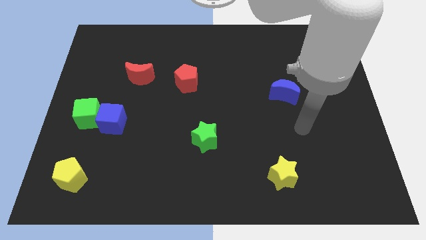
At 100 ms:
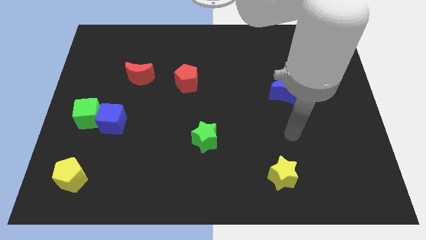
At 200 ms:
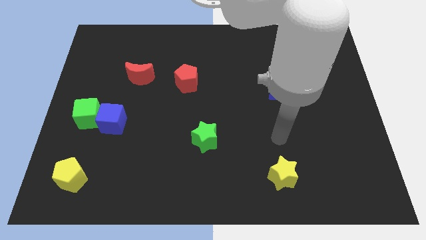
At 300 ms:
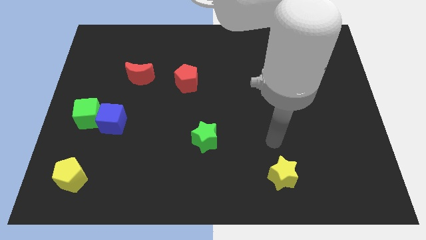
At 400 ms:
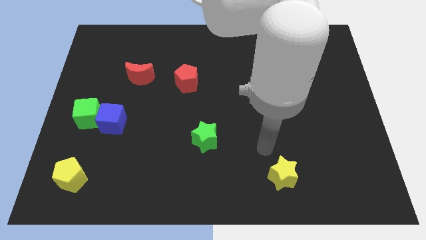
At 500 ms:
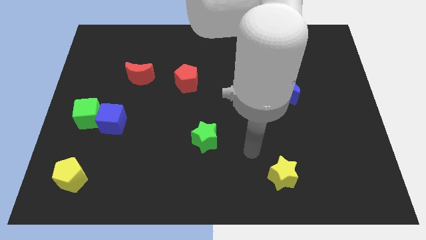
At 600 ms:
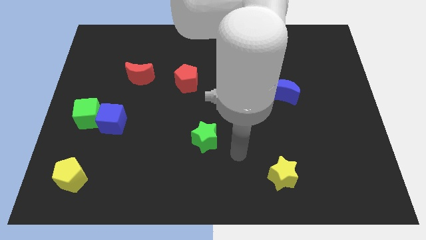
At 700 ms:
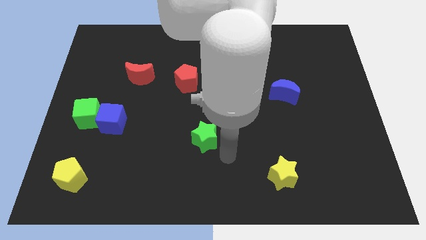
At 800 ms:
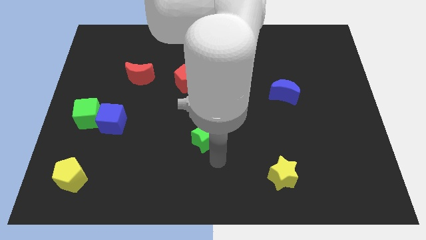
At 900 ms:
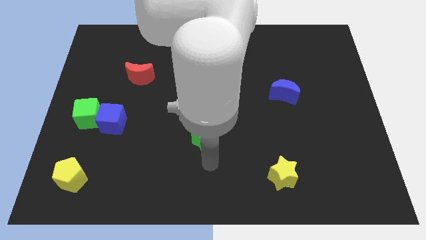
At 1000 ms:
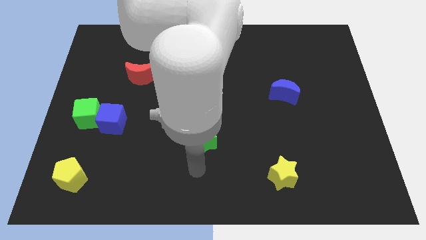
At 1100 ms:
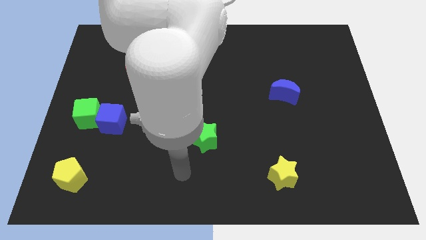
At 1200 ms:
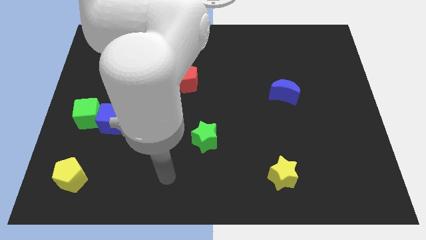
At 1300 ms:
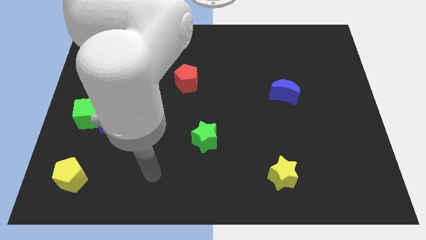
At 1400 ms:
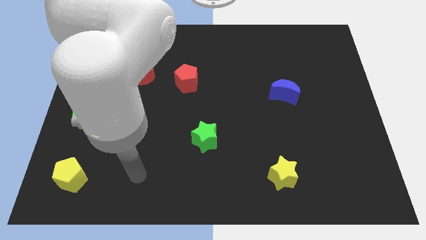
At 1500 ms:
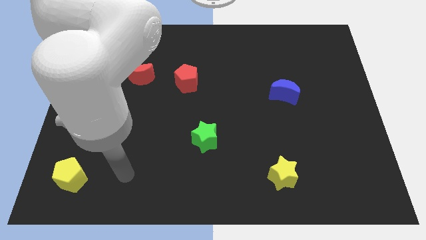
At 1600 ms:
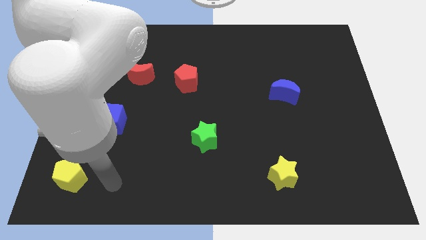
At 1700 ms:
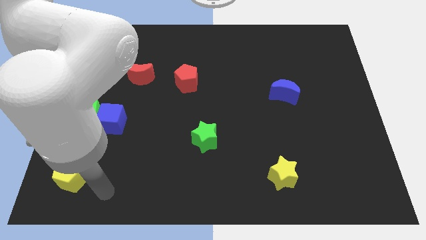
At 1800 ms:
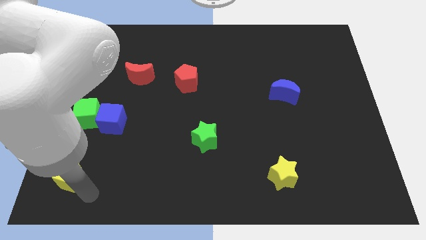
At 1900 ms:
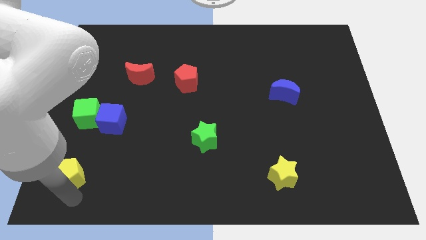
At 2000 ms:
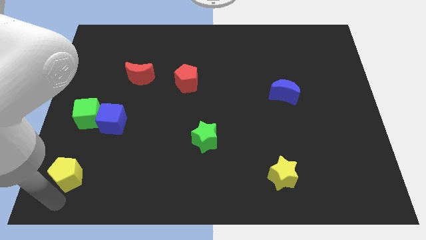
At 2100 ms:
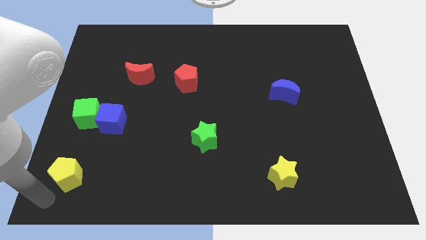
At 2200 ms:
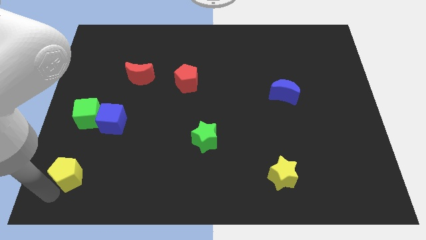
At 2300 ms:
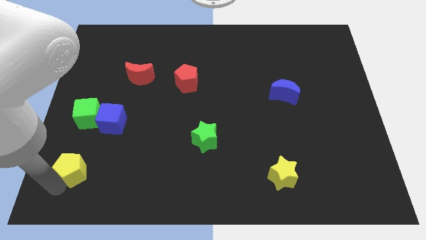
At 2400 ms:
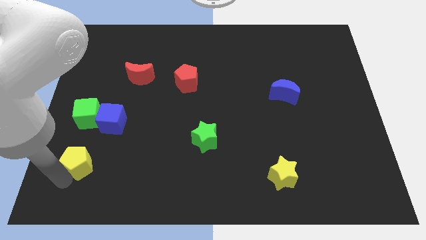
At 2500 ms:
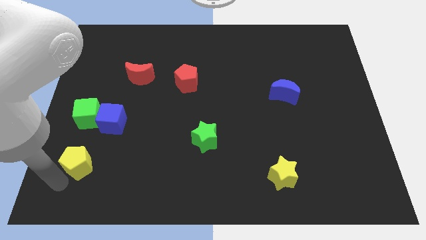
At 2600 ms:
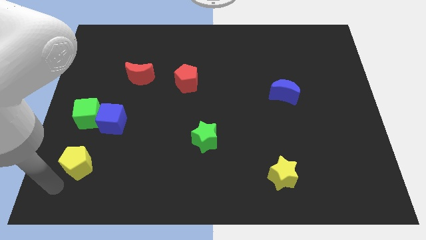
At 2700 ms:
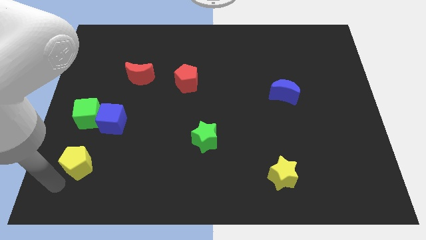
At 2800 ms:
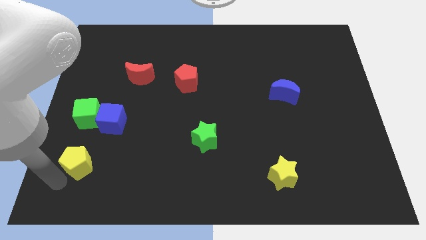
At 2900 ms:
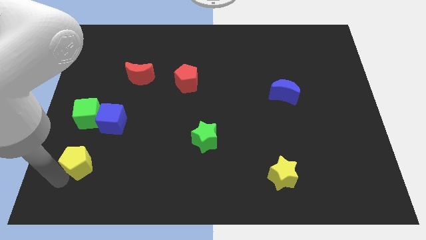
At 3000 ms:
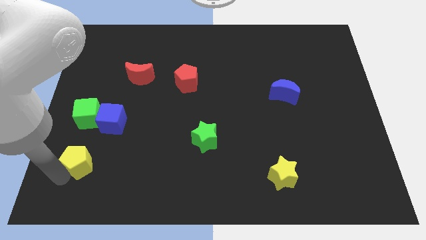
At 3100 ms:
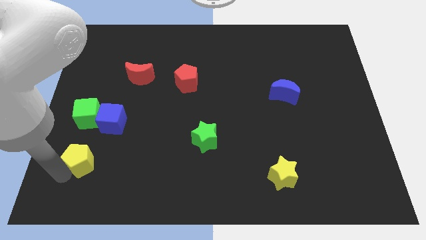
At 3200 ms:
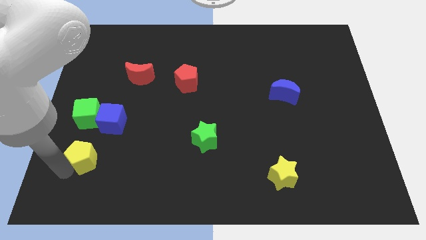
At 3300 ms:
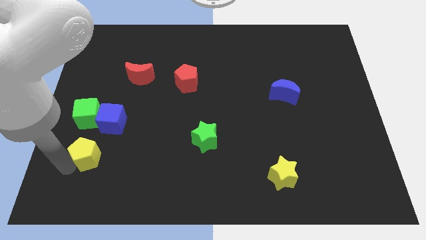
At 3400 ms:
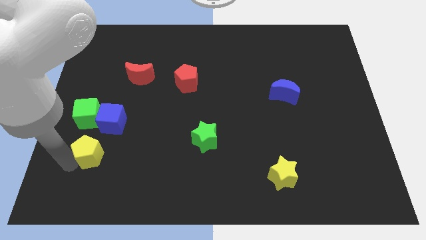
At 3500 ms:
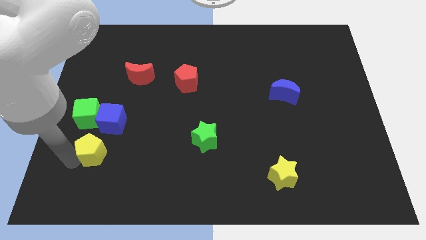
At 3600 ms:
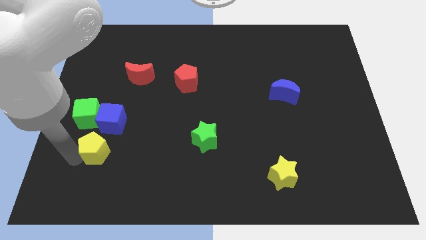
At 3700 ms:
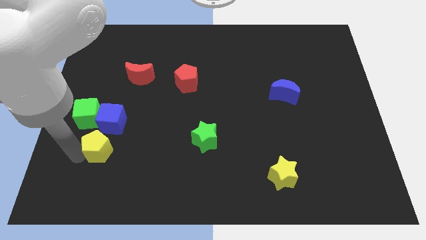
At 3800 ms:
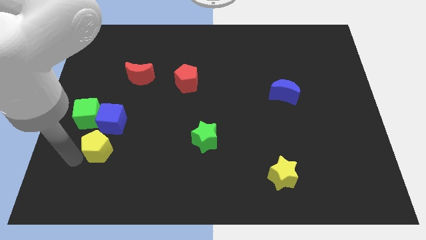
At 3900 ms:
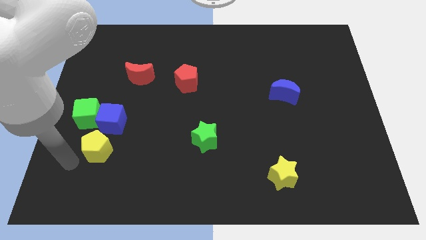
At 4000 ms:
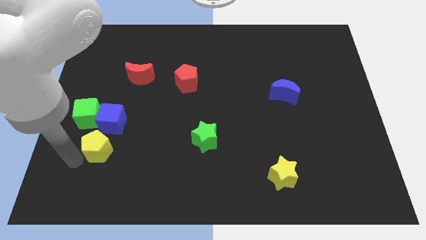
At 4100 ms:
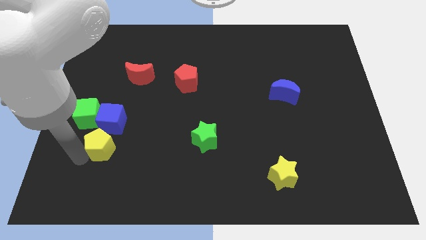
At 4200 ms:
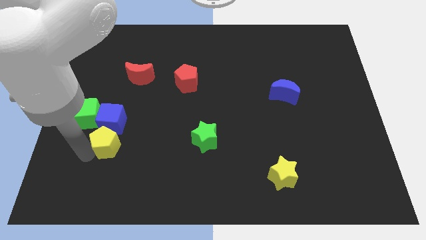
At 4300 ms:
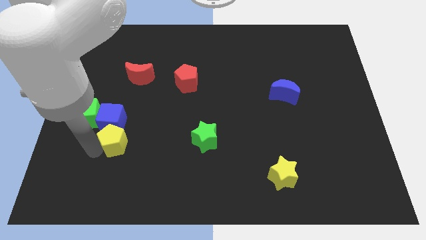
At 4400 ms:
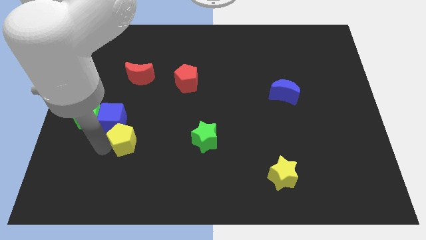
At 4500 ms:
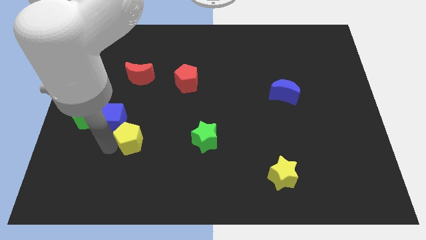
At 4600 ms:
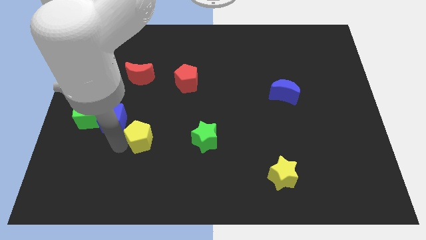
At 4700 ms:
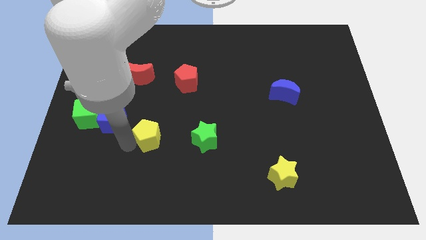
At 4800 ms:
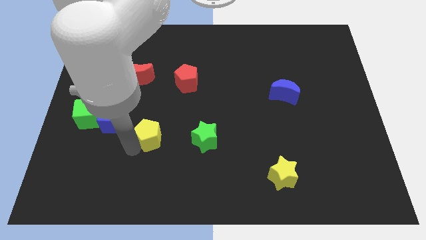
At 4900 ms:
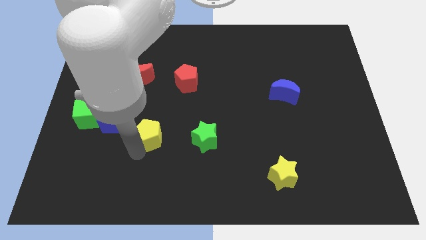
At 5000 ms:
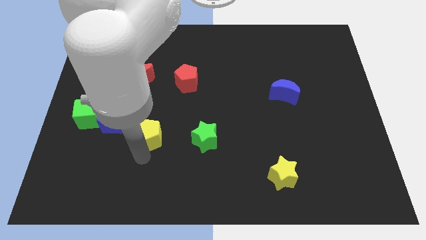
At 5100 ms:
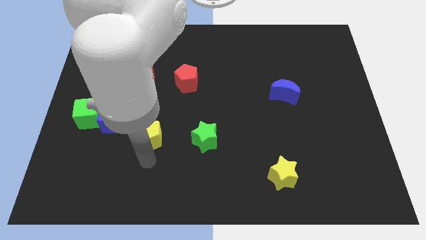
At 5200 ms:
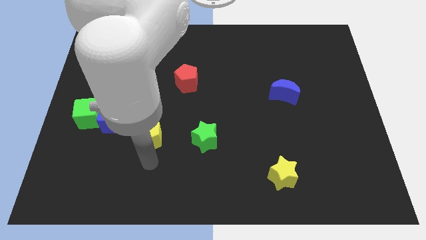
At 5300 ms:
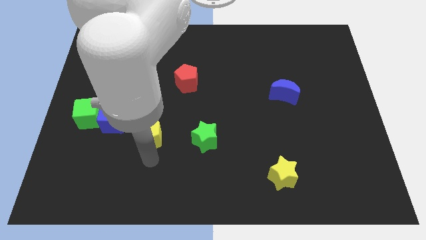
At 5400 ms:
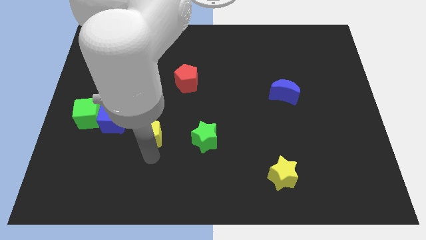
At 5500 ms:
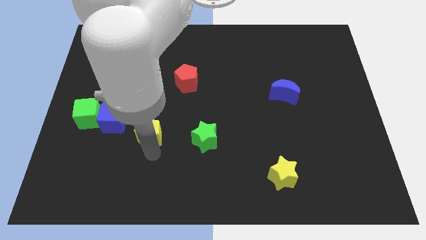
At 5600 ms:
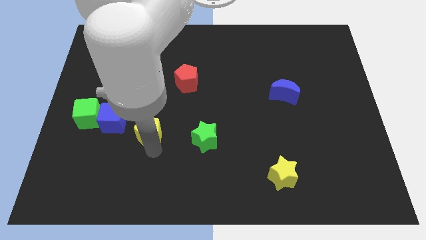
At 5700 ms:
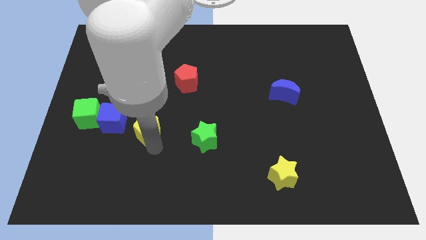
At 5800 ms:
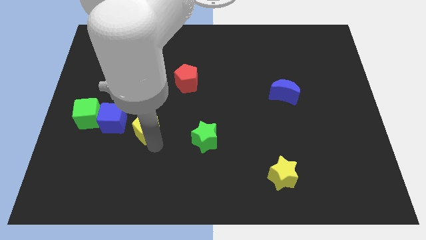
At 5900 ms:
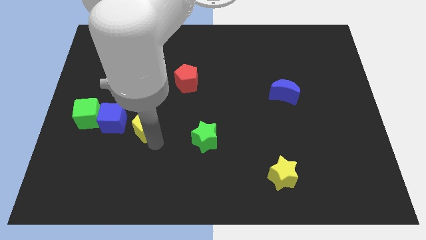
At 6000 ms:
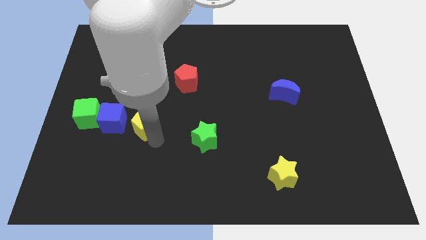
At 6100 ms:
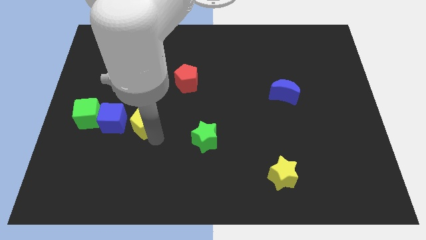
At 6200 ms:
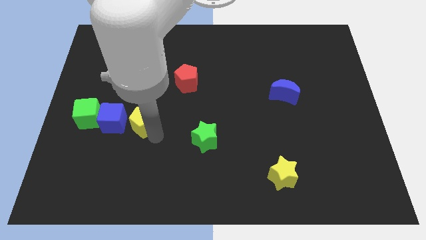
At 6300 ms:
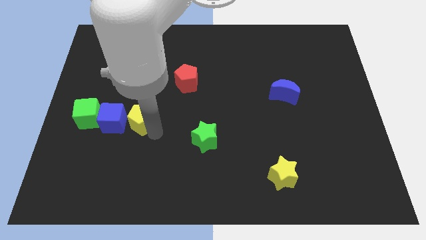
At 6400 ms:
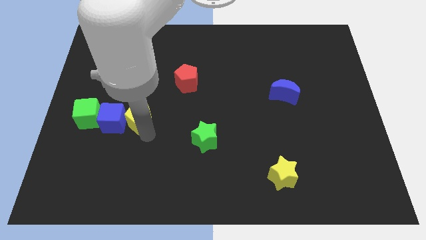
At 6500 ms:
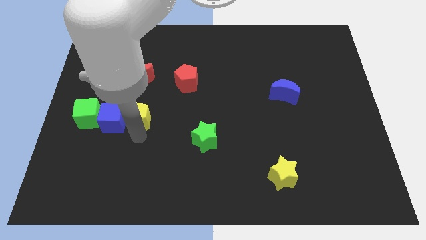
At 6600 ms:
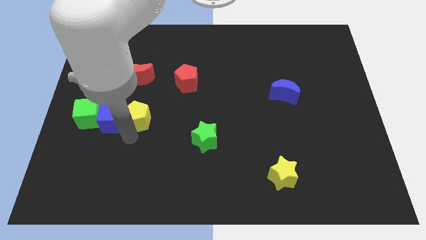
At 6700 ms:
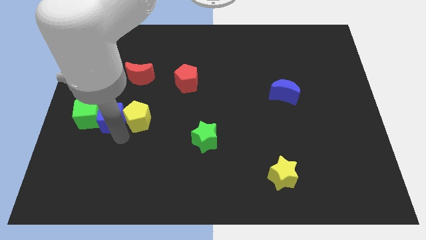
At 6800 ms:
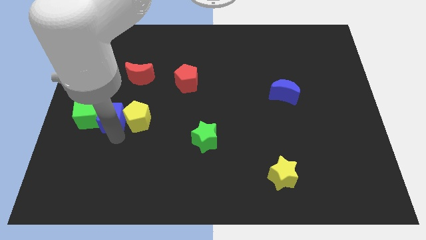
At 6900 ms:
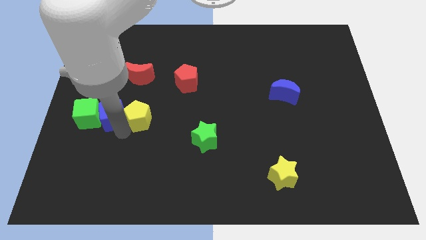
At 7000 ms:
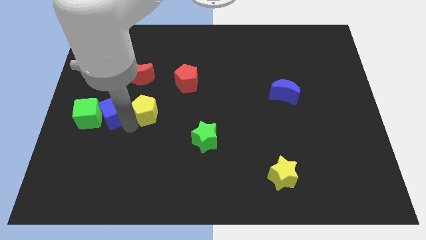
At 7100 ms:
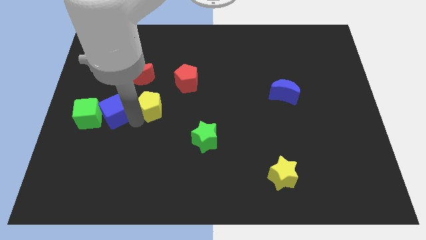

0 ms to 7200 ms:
move the yellow pentagon diagonally down and to the left of the red pentagon
